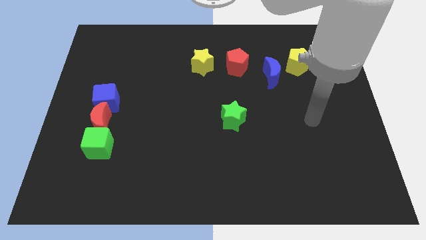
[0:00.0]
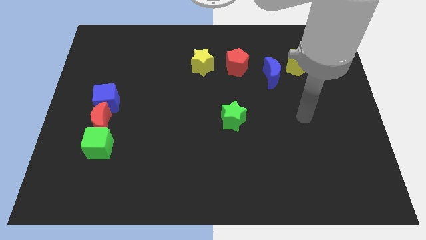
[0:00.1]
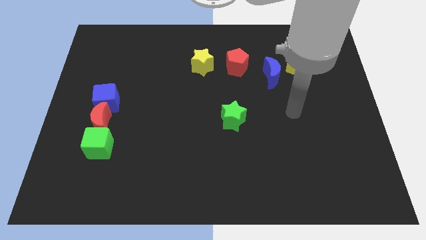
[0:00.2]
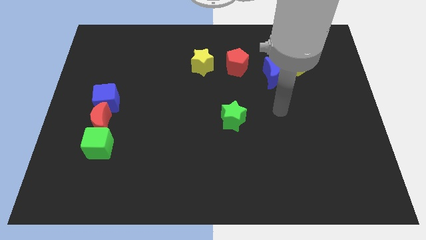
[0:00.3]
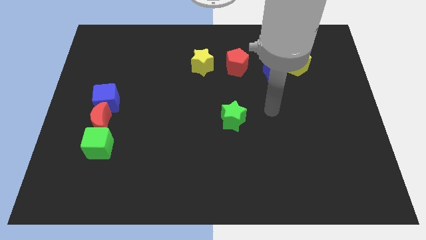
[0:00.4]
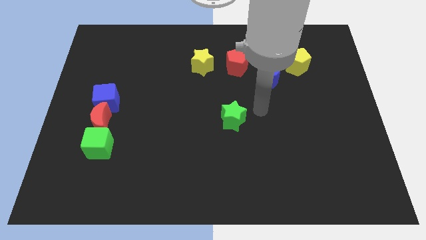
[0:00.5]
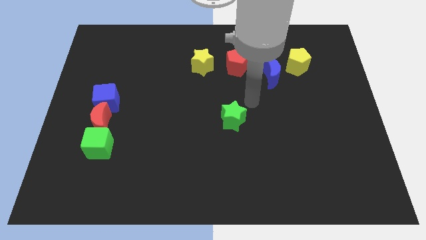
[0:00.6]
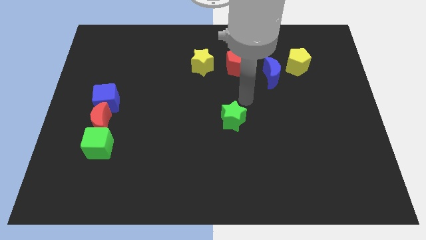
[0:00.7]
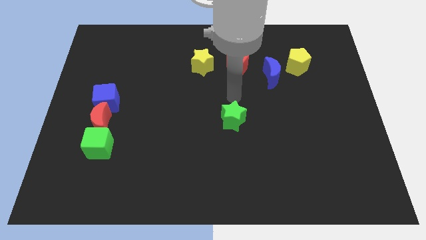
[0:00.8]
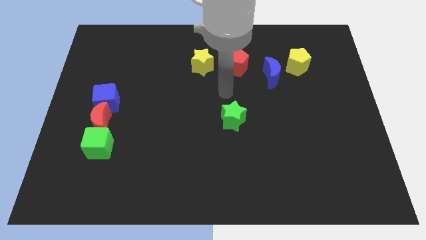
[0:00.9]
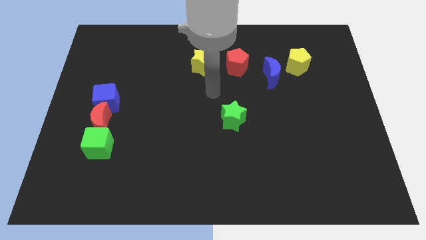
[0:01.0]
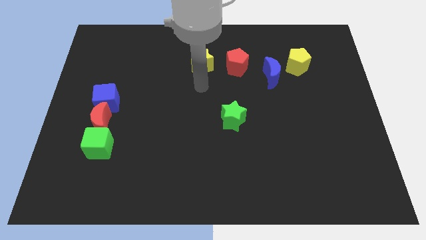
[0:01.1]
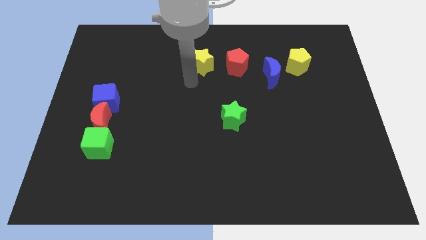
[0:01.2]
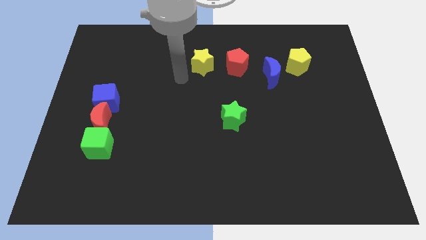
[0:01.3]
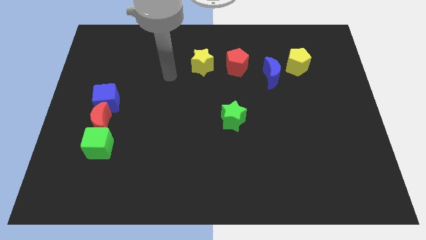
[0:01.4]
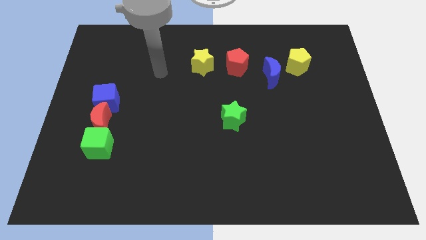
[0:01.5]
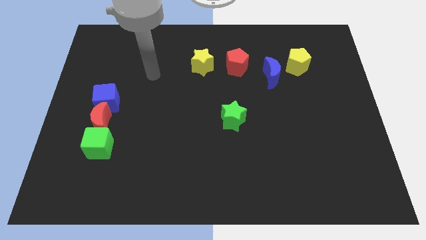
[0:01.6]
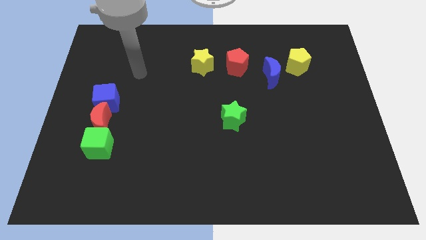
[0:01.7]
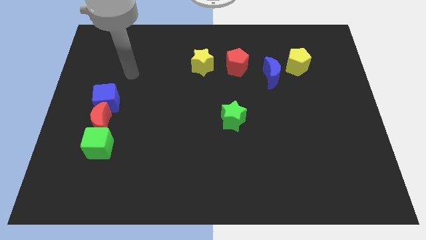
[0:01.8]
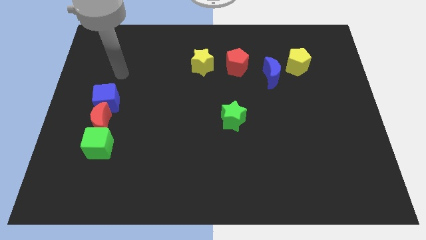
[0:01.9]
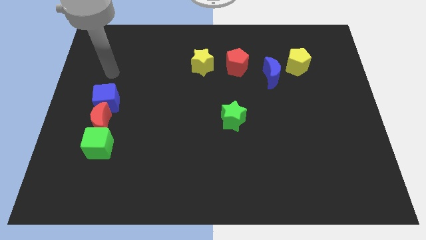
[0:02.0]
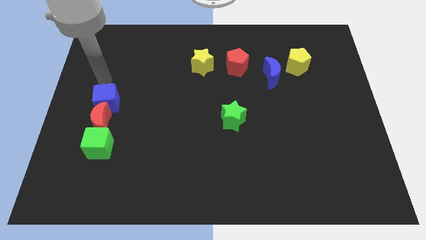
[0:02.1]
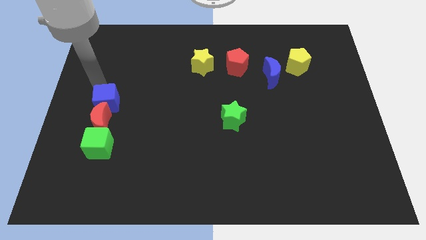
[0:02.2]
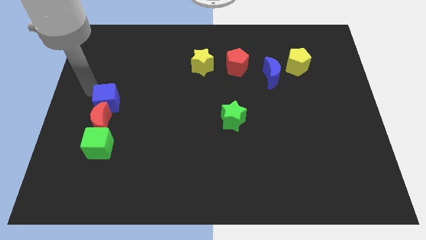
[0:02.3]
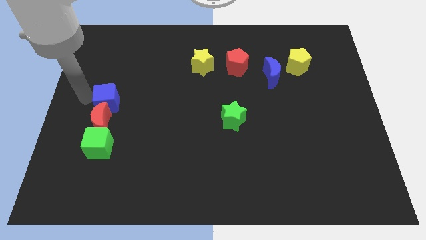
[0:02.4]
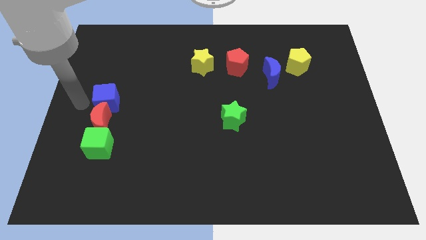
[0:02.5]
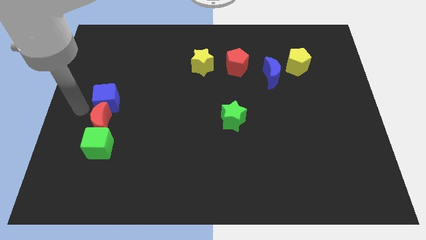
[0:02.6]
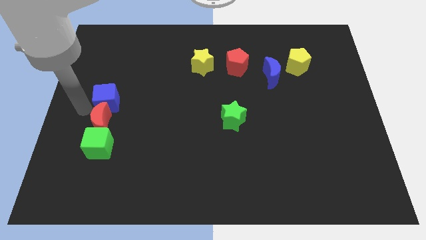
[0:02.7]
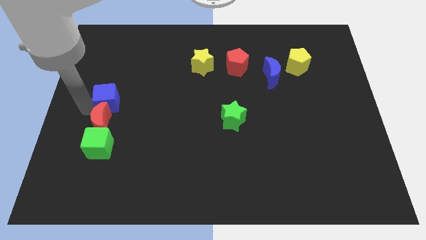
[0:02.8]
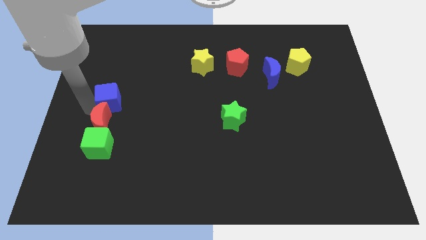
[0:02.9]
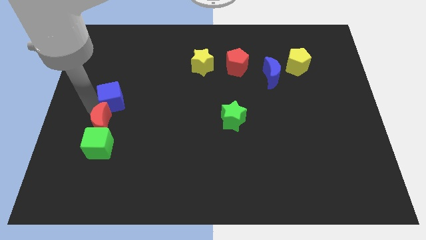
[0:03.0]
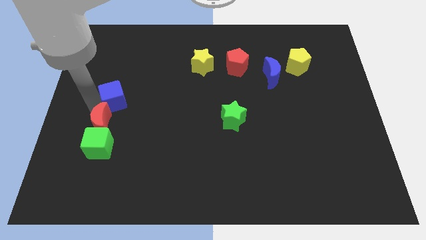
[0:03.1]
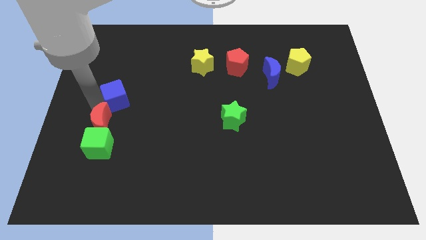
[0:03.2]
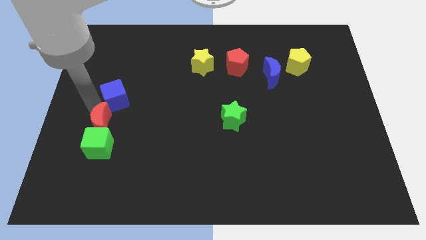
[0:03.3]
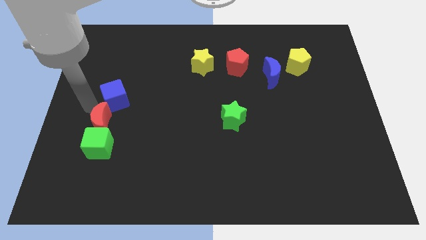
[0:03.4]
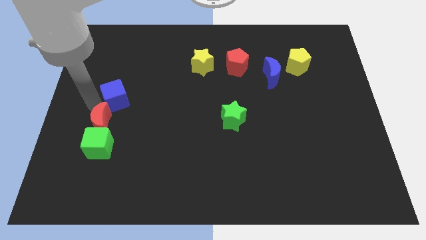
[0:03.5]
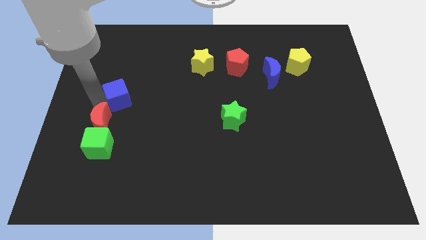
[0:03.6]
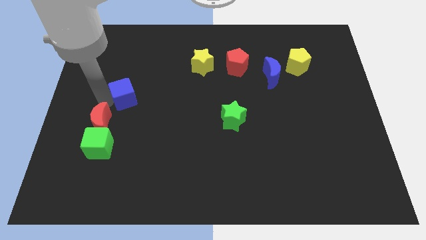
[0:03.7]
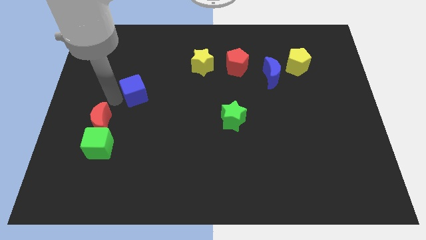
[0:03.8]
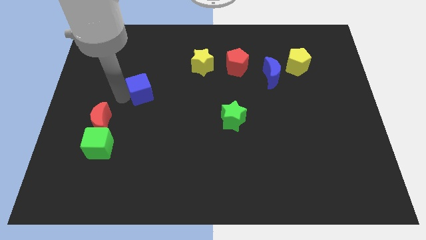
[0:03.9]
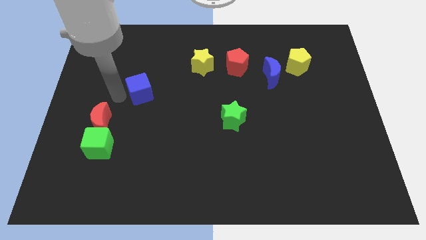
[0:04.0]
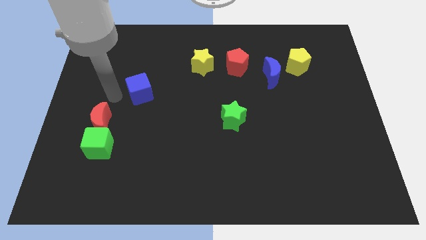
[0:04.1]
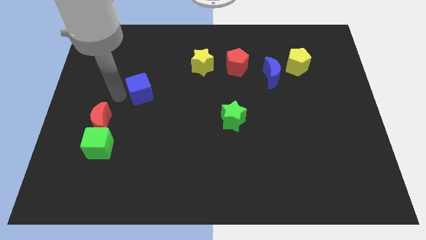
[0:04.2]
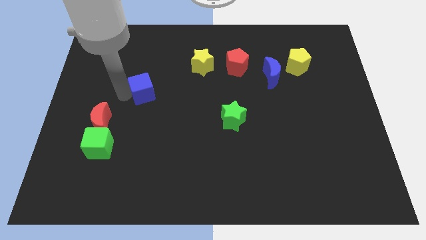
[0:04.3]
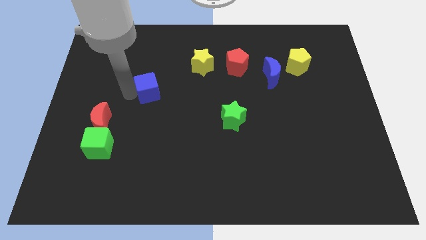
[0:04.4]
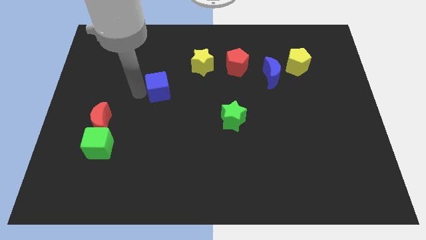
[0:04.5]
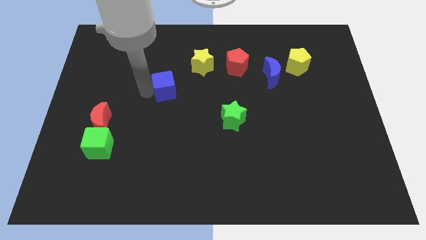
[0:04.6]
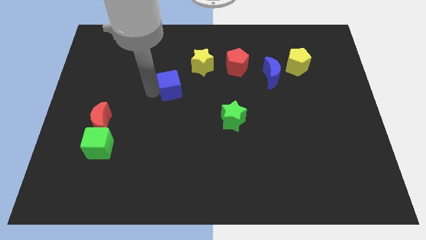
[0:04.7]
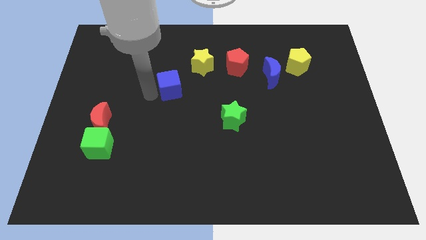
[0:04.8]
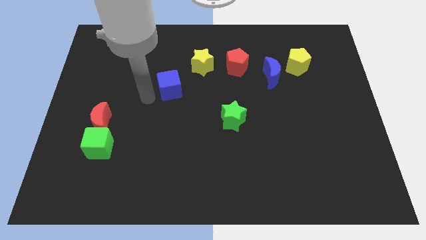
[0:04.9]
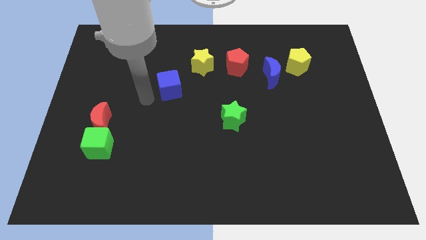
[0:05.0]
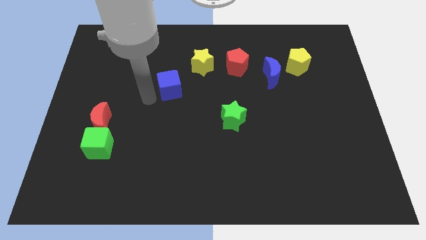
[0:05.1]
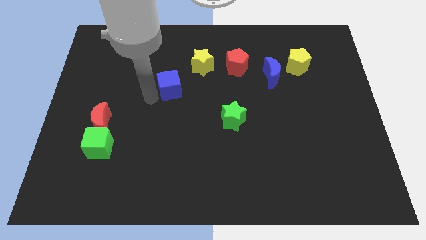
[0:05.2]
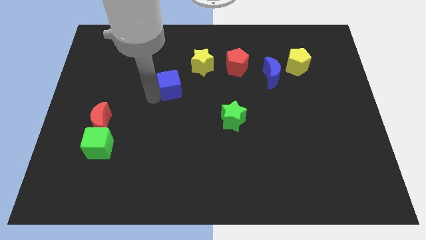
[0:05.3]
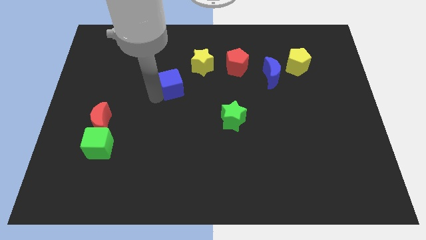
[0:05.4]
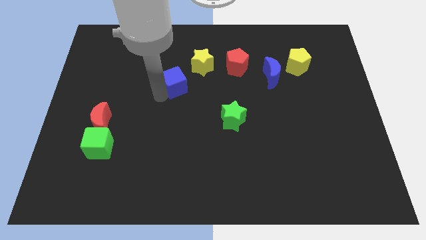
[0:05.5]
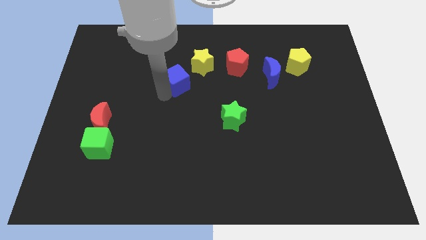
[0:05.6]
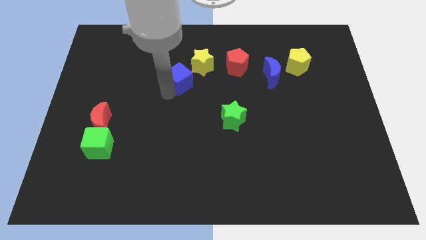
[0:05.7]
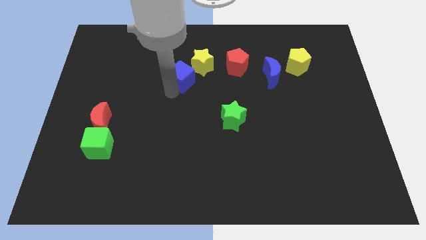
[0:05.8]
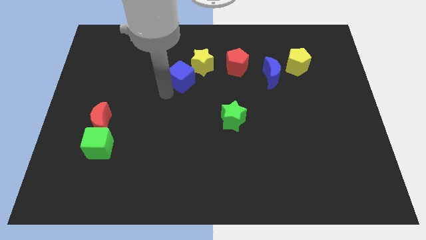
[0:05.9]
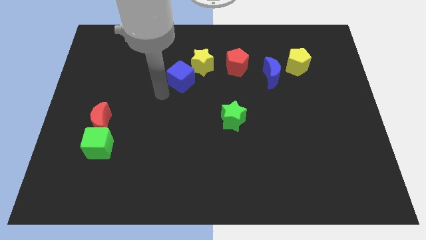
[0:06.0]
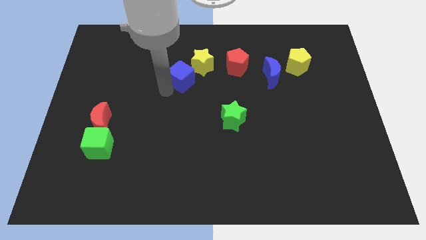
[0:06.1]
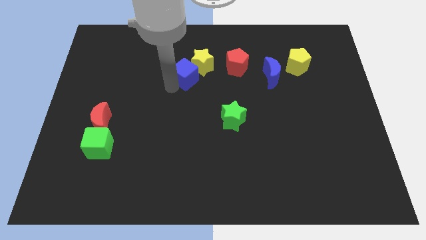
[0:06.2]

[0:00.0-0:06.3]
push the blue cube to the yellow star
